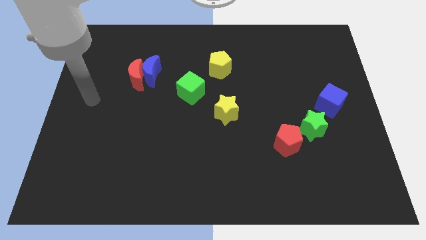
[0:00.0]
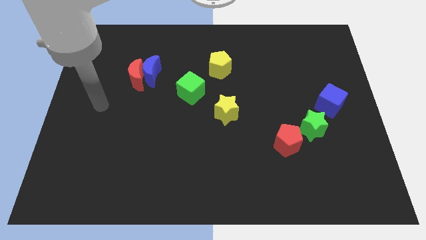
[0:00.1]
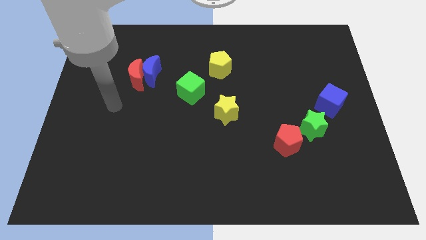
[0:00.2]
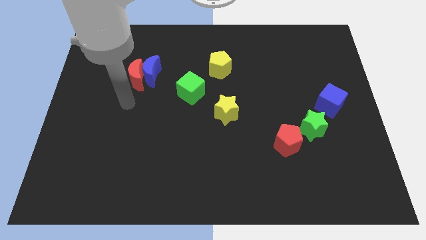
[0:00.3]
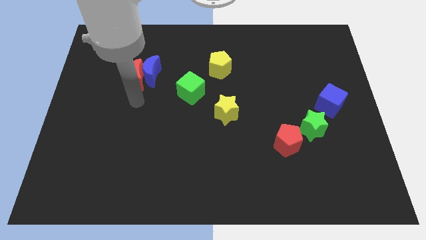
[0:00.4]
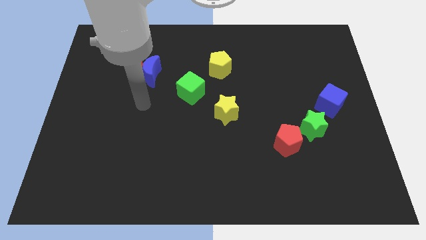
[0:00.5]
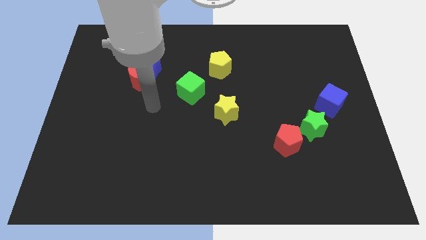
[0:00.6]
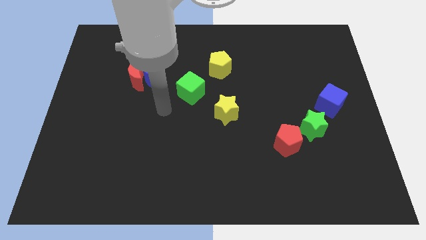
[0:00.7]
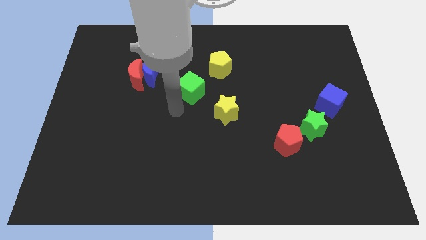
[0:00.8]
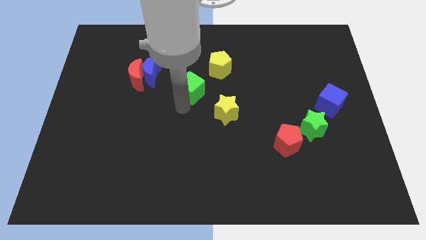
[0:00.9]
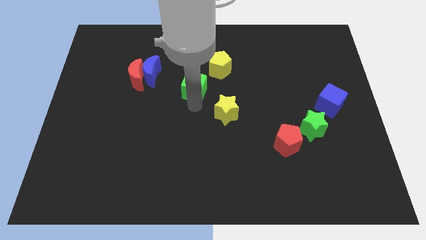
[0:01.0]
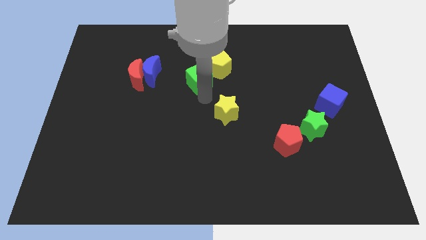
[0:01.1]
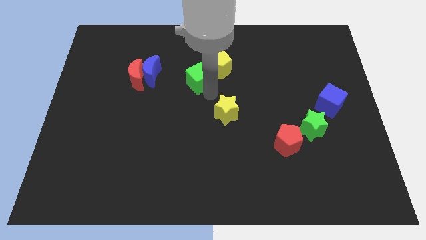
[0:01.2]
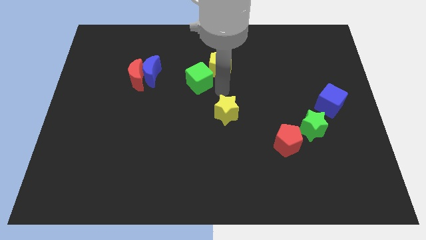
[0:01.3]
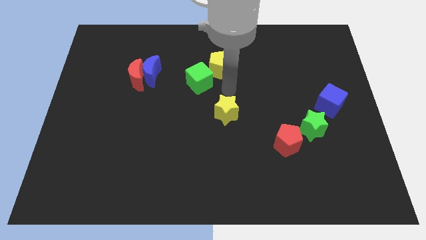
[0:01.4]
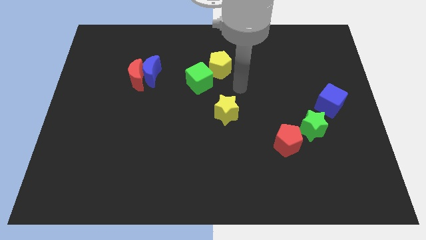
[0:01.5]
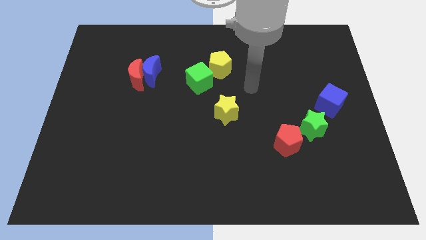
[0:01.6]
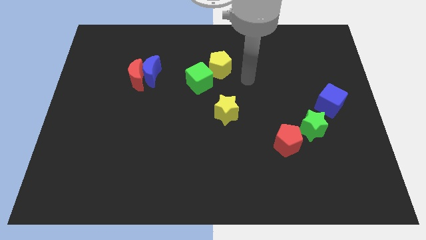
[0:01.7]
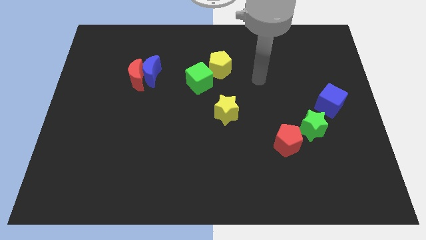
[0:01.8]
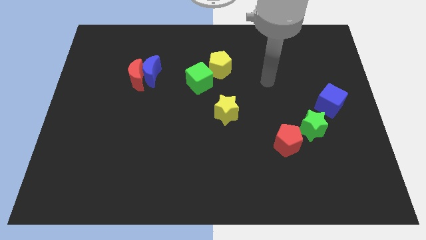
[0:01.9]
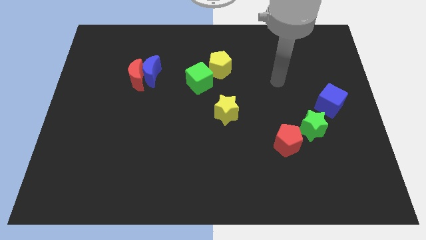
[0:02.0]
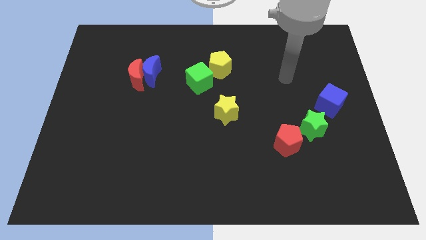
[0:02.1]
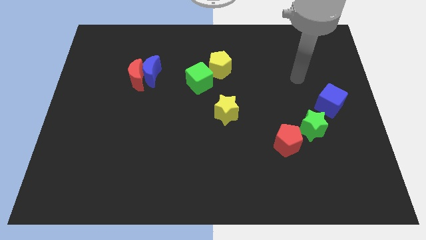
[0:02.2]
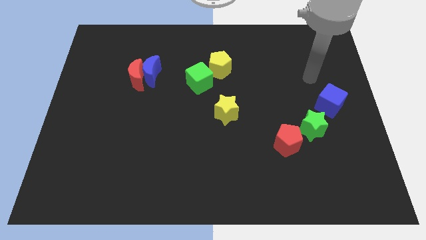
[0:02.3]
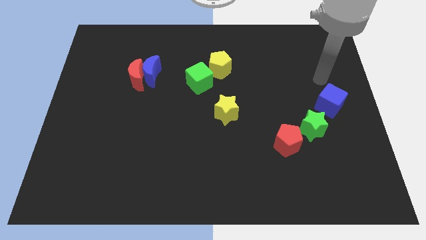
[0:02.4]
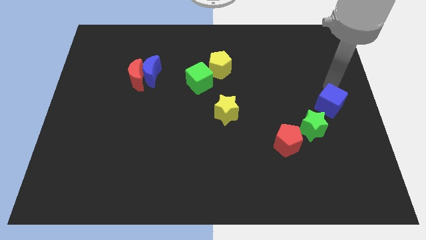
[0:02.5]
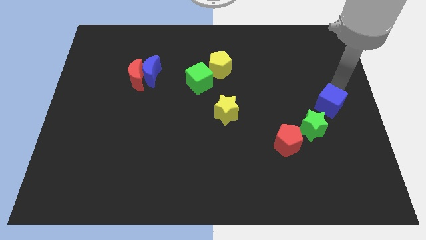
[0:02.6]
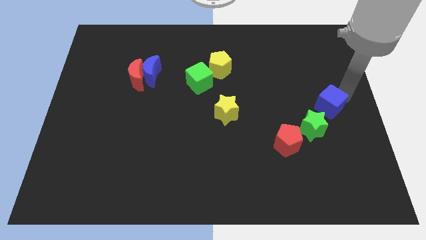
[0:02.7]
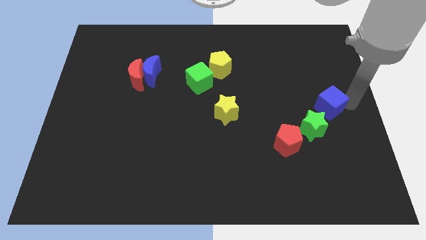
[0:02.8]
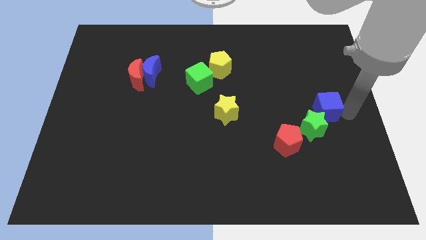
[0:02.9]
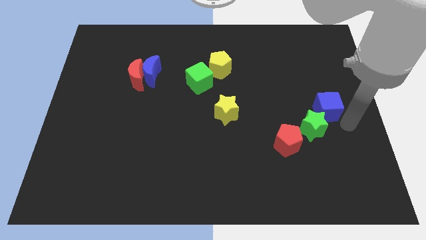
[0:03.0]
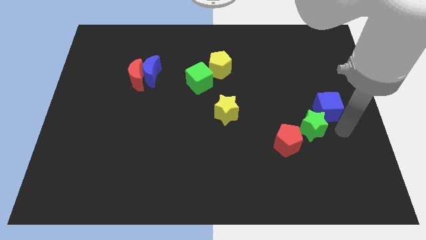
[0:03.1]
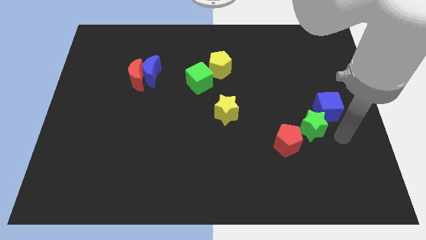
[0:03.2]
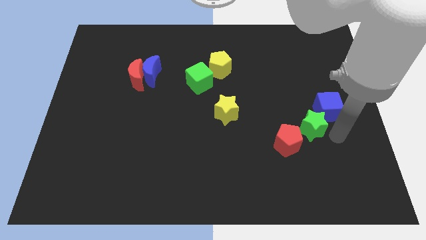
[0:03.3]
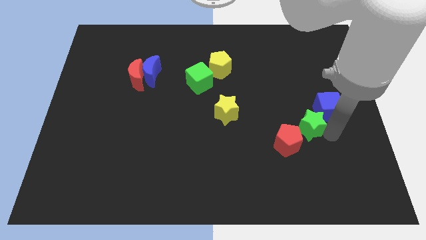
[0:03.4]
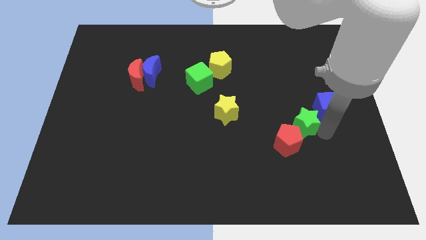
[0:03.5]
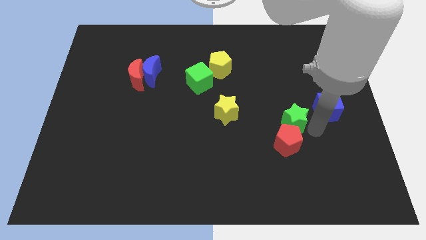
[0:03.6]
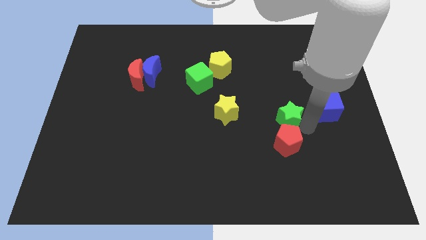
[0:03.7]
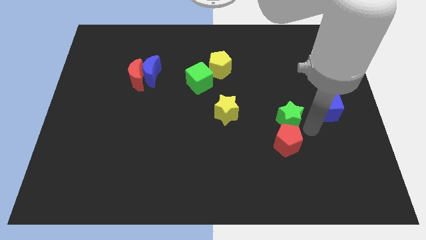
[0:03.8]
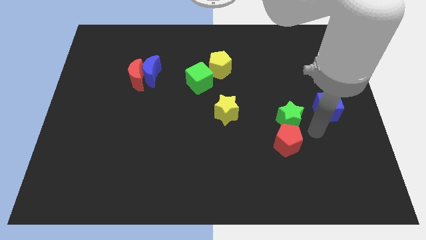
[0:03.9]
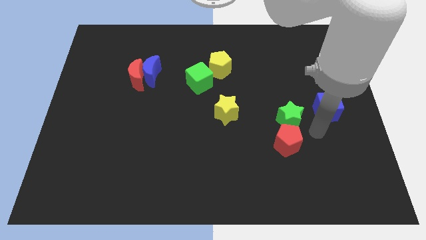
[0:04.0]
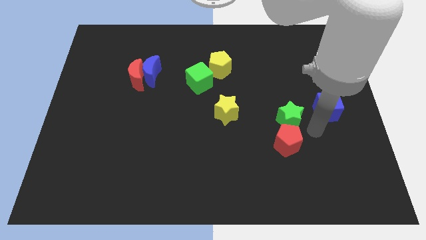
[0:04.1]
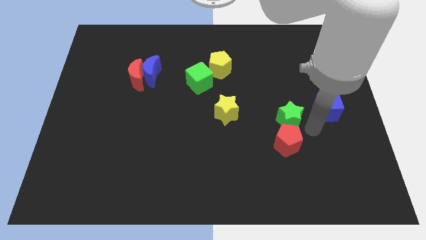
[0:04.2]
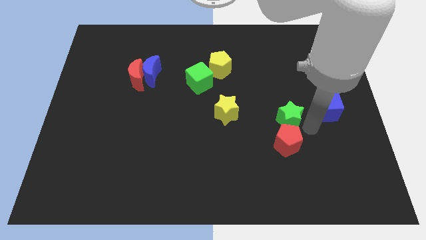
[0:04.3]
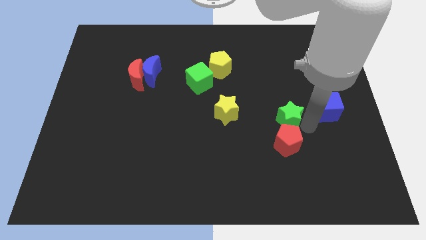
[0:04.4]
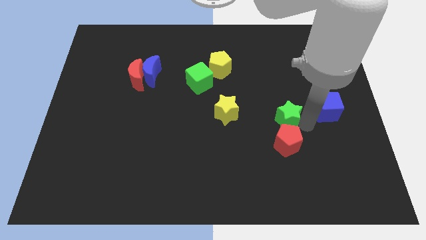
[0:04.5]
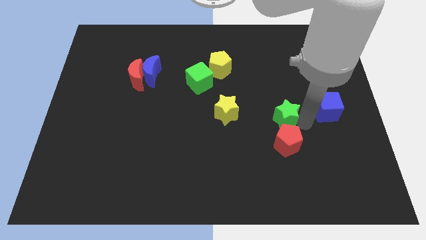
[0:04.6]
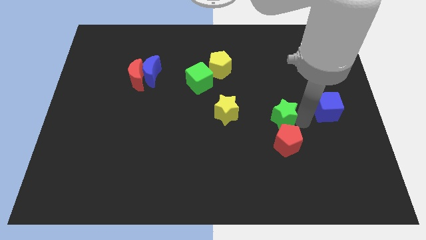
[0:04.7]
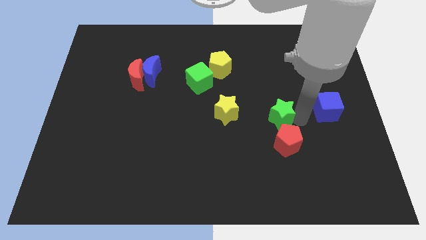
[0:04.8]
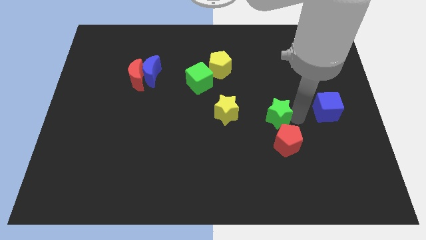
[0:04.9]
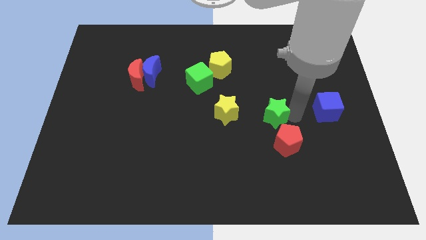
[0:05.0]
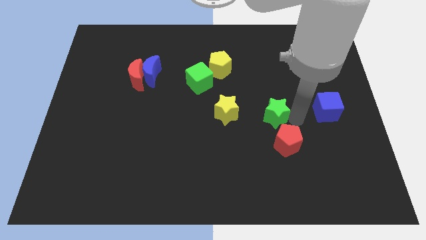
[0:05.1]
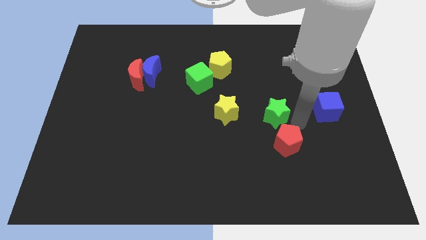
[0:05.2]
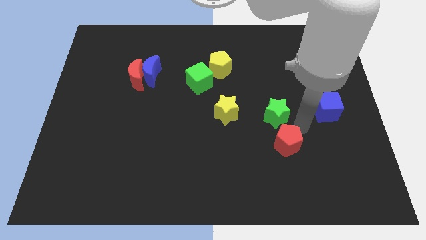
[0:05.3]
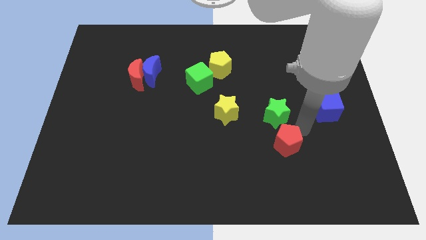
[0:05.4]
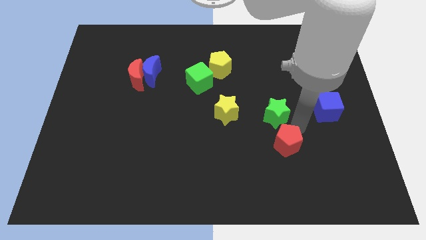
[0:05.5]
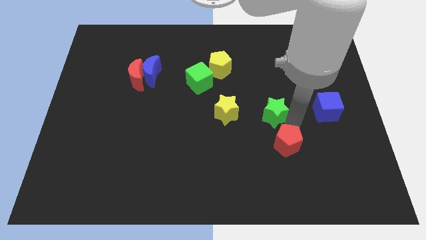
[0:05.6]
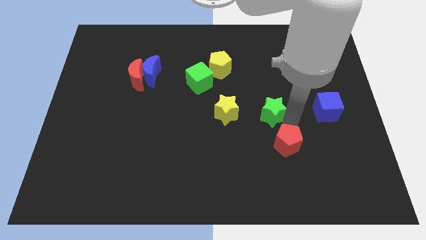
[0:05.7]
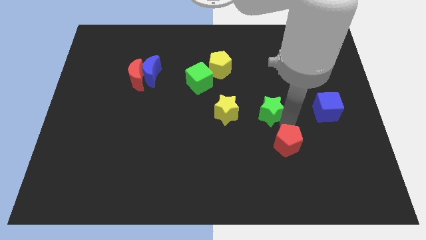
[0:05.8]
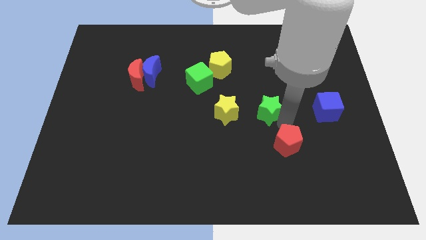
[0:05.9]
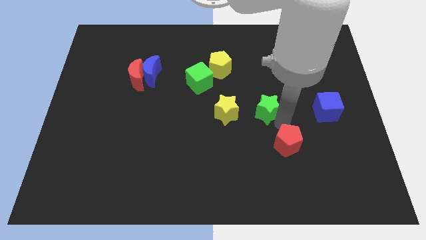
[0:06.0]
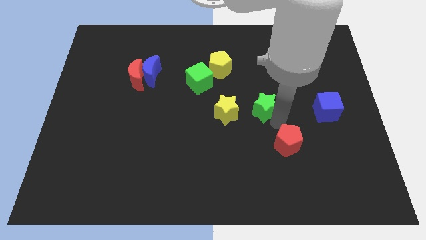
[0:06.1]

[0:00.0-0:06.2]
put the green star to the middle
